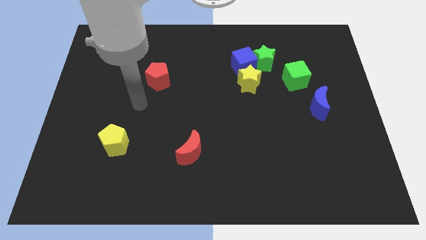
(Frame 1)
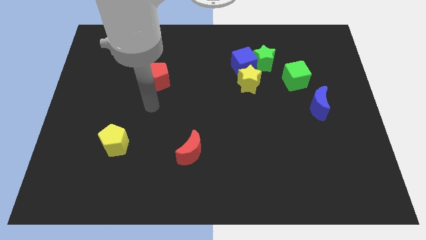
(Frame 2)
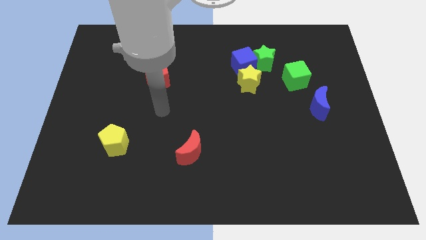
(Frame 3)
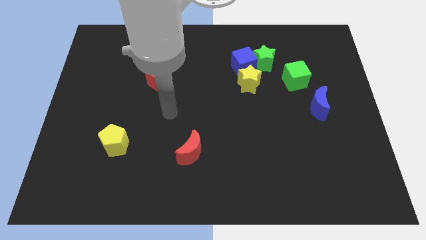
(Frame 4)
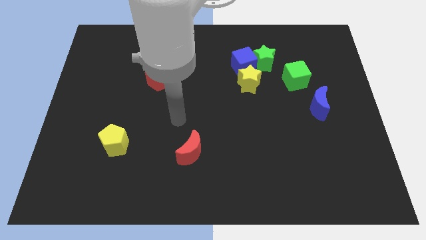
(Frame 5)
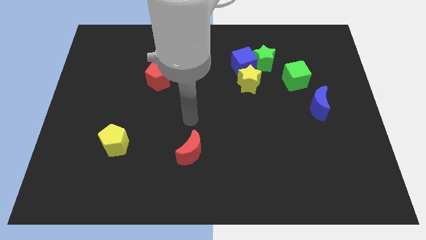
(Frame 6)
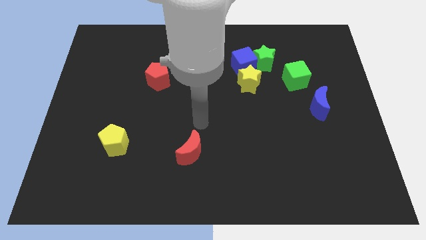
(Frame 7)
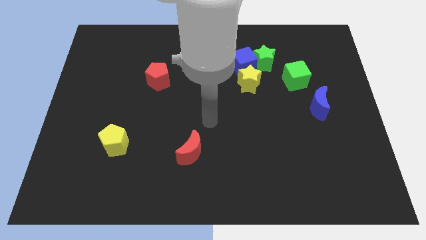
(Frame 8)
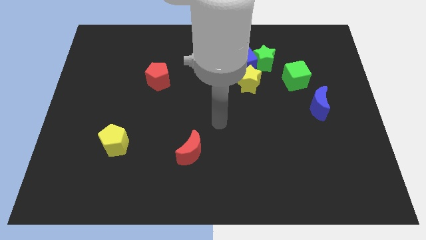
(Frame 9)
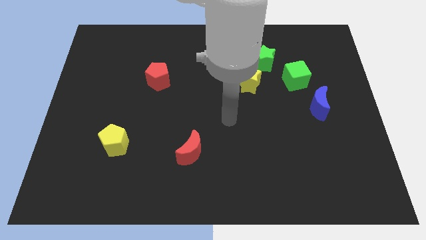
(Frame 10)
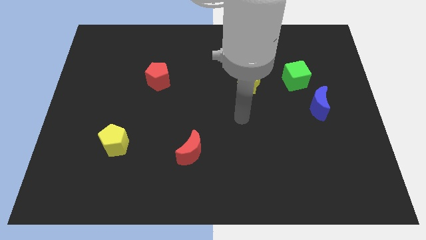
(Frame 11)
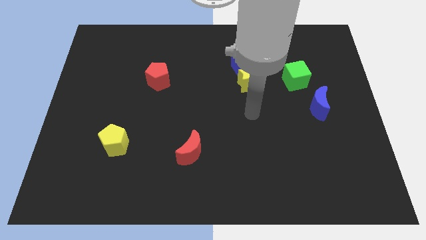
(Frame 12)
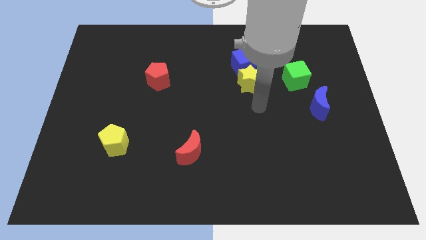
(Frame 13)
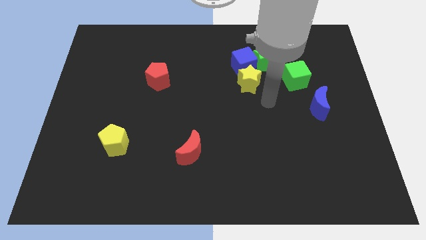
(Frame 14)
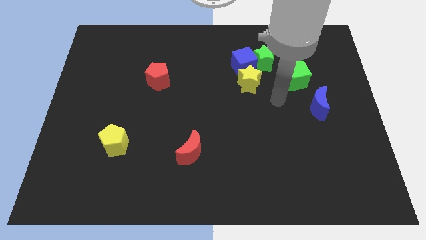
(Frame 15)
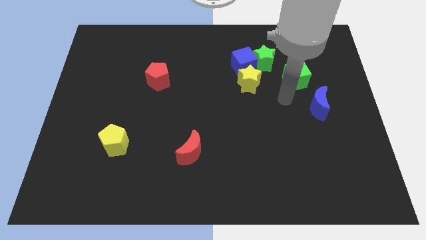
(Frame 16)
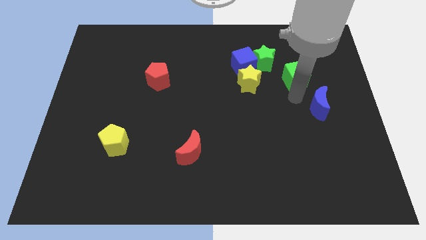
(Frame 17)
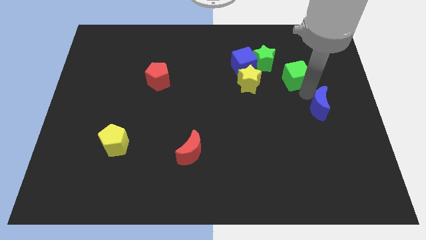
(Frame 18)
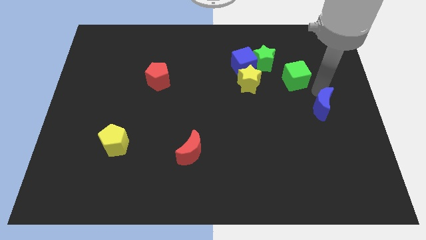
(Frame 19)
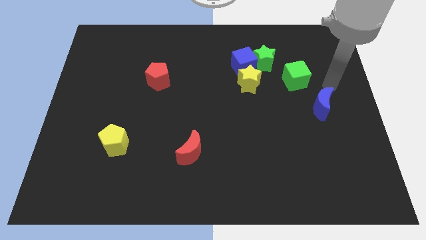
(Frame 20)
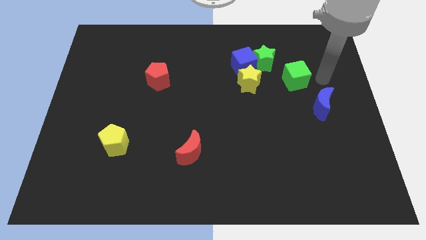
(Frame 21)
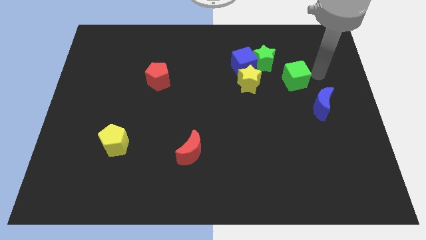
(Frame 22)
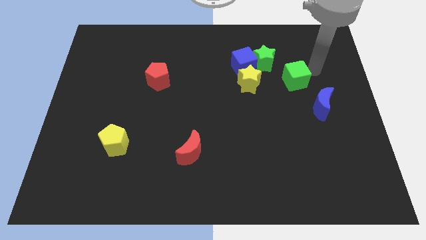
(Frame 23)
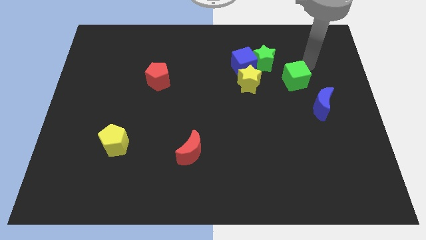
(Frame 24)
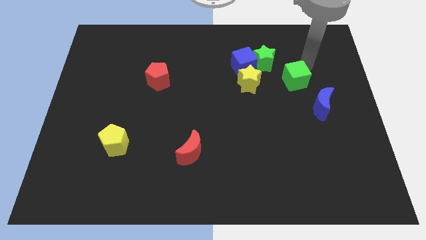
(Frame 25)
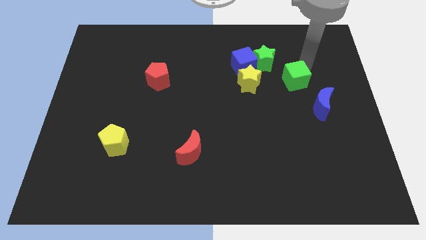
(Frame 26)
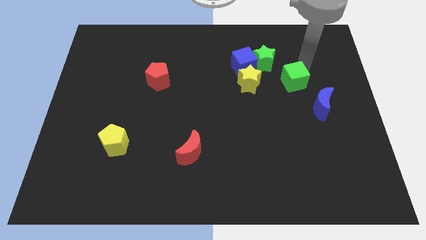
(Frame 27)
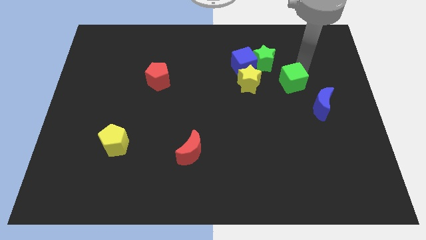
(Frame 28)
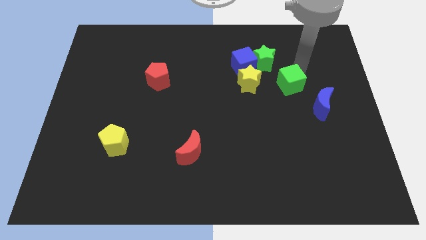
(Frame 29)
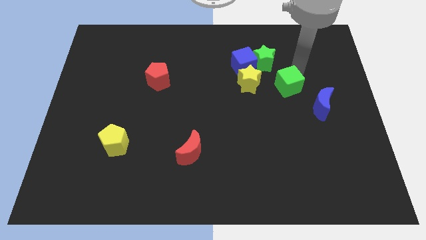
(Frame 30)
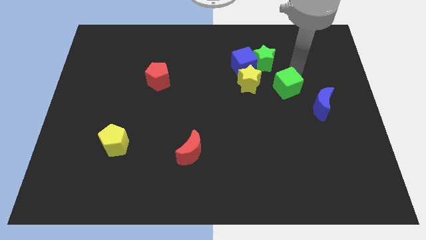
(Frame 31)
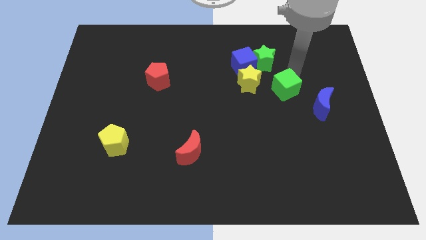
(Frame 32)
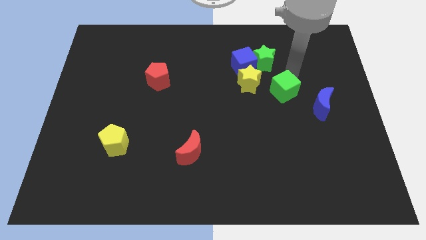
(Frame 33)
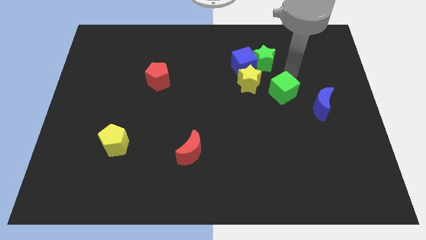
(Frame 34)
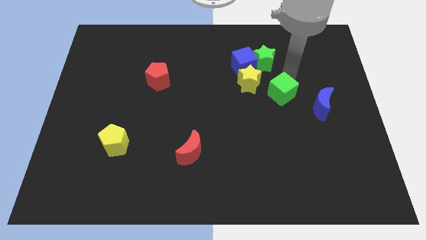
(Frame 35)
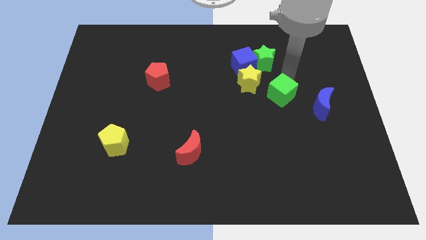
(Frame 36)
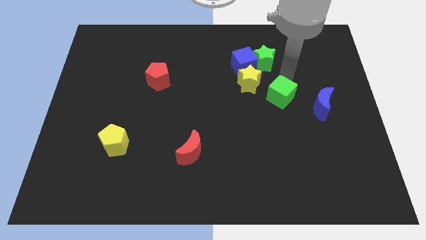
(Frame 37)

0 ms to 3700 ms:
slide the green cube downwards and left a little bit

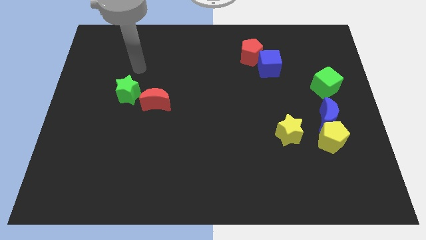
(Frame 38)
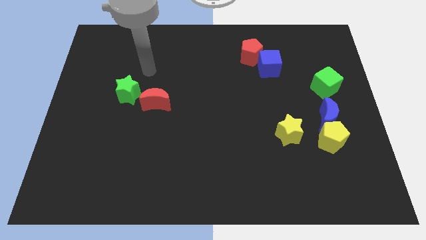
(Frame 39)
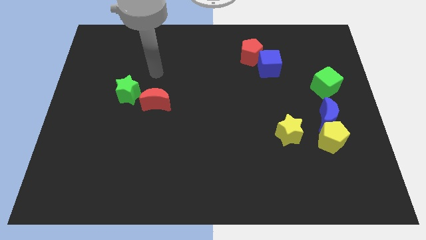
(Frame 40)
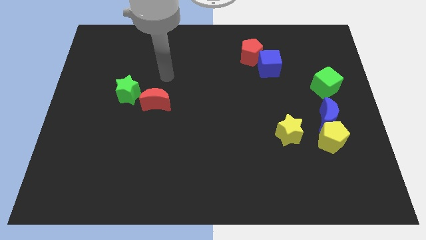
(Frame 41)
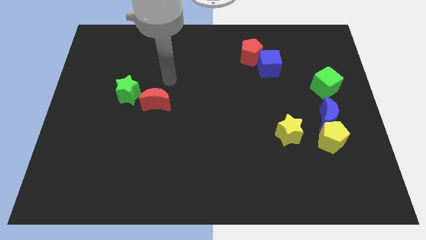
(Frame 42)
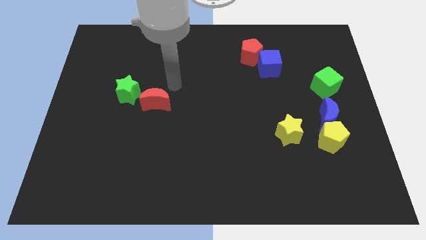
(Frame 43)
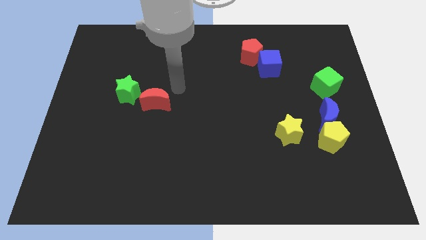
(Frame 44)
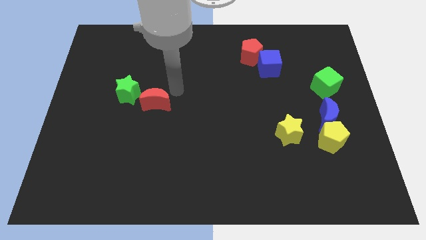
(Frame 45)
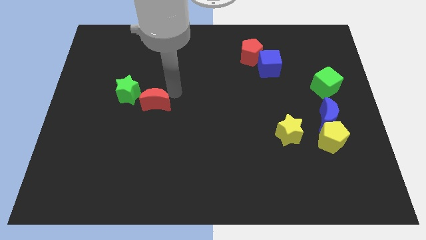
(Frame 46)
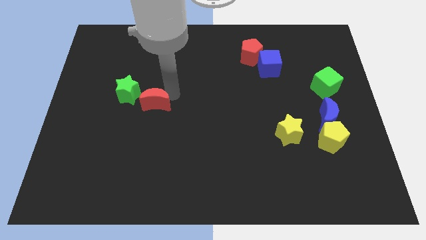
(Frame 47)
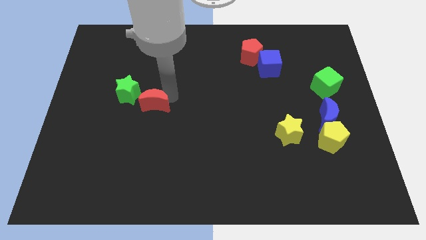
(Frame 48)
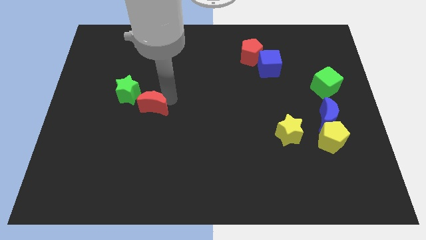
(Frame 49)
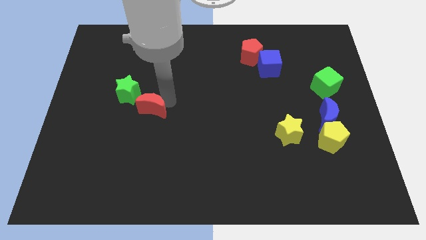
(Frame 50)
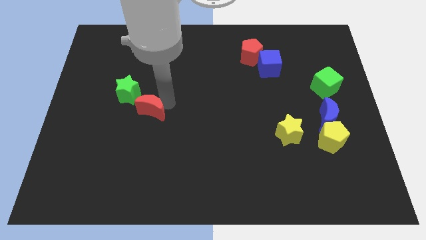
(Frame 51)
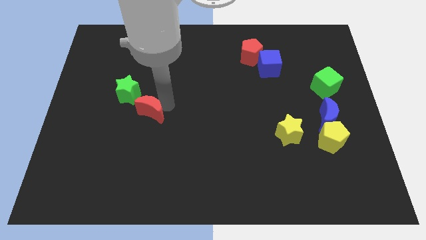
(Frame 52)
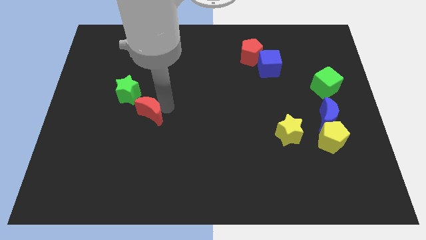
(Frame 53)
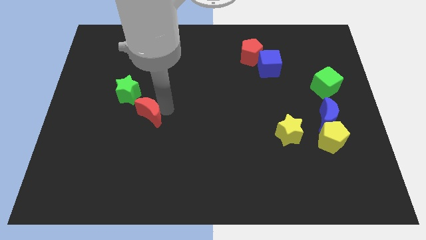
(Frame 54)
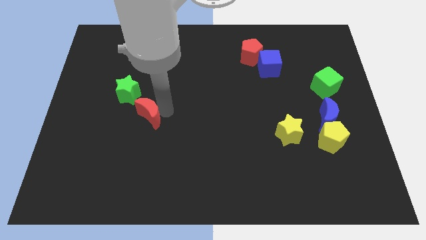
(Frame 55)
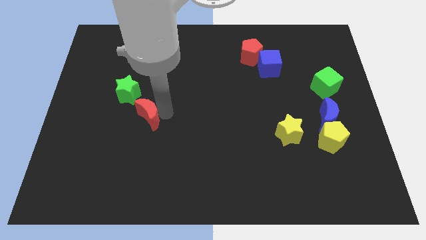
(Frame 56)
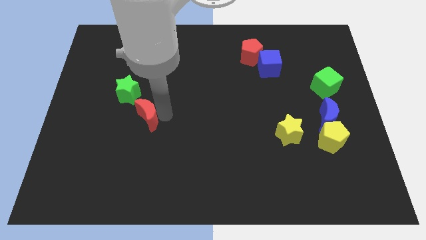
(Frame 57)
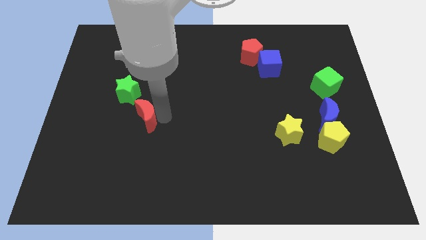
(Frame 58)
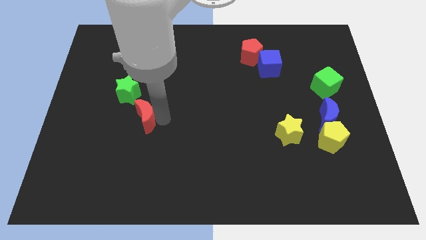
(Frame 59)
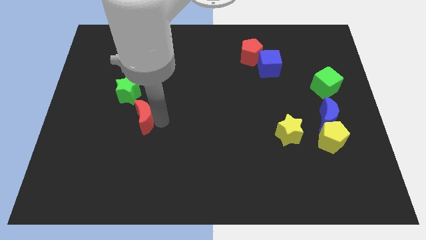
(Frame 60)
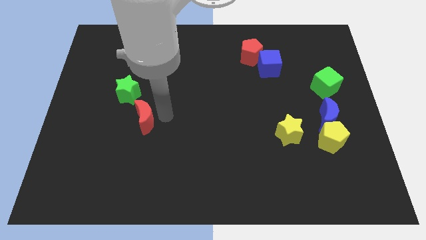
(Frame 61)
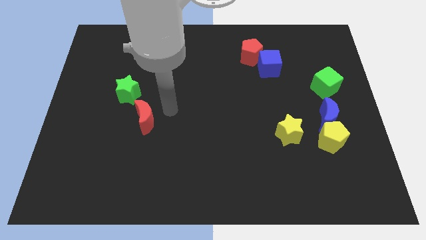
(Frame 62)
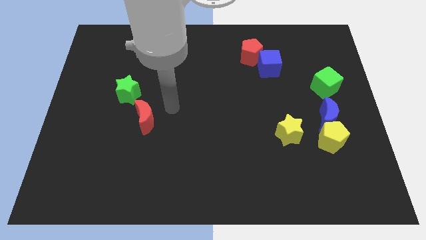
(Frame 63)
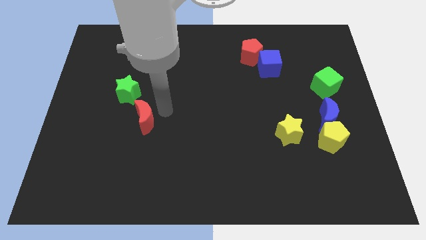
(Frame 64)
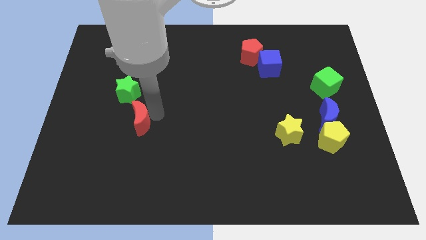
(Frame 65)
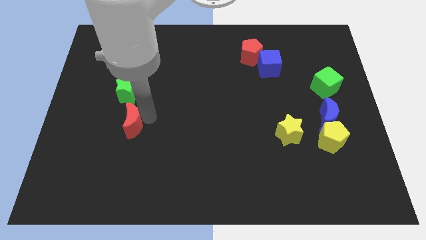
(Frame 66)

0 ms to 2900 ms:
slightly move the red moon diagonally down and to the left

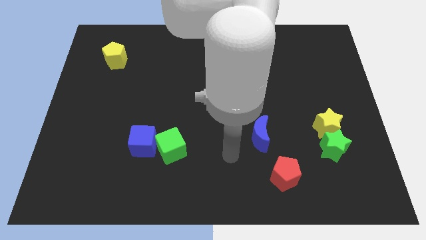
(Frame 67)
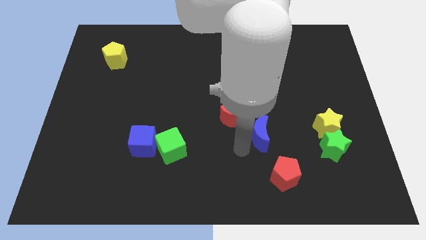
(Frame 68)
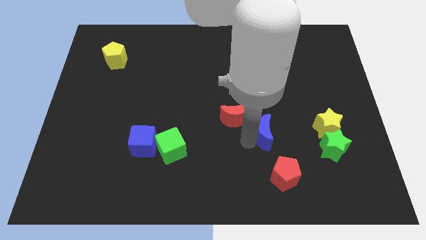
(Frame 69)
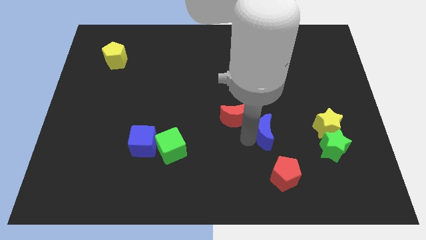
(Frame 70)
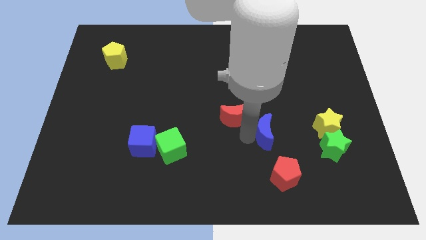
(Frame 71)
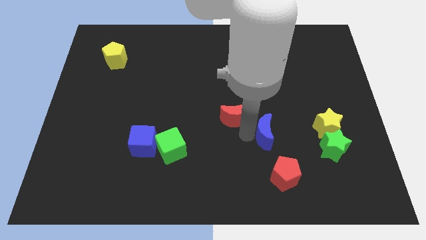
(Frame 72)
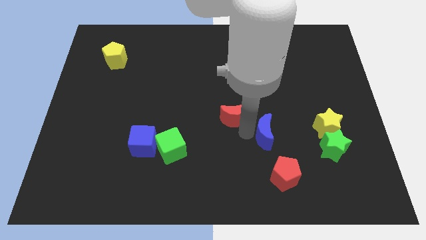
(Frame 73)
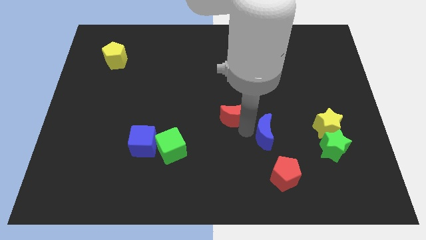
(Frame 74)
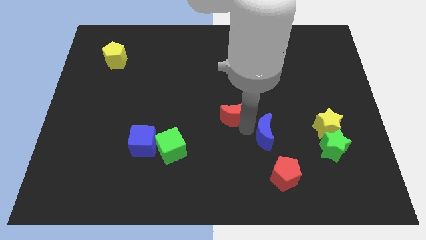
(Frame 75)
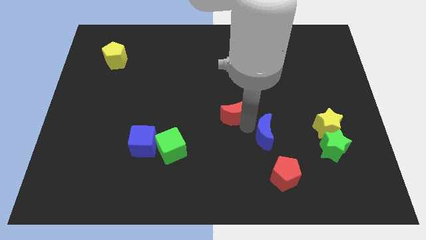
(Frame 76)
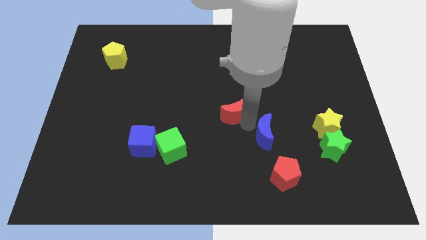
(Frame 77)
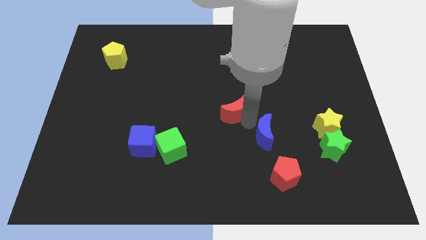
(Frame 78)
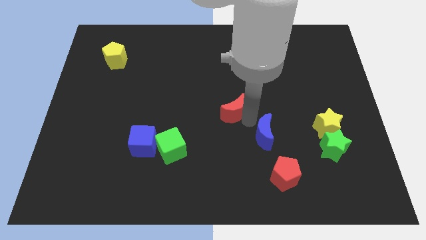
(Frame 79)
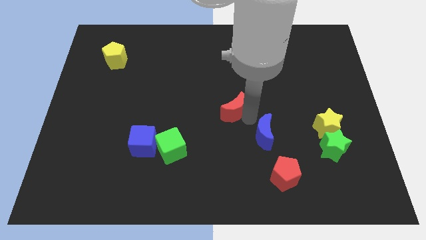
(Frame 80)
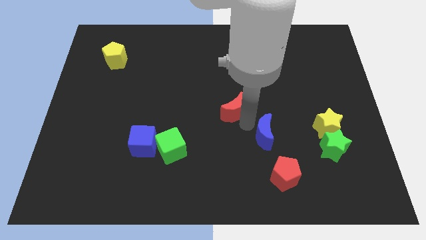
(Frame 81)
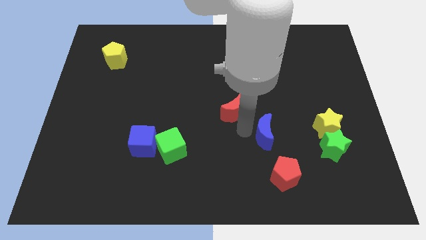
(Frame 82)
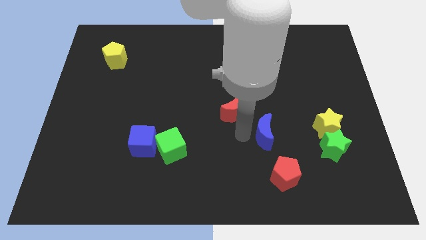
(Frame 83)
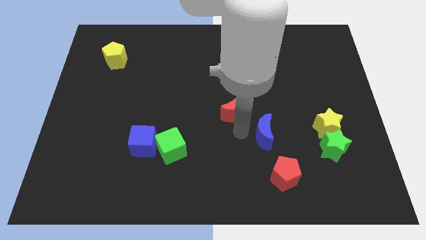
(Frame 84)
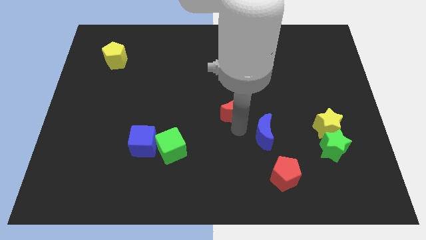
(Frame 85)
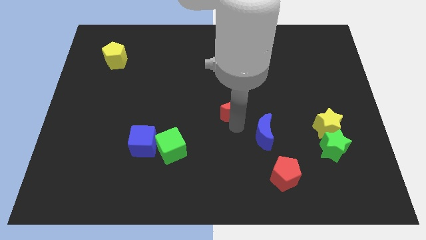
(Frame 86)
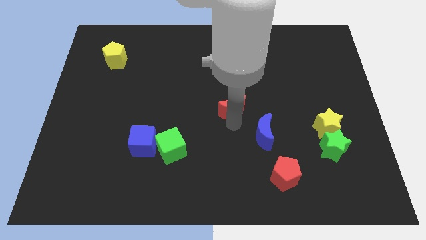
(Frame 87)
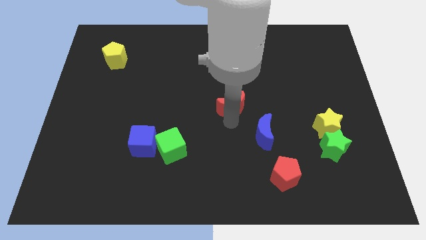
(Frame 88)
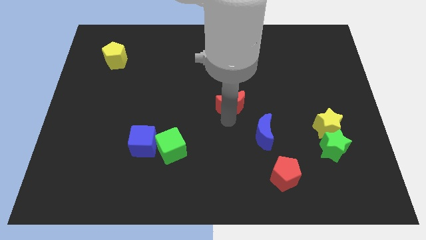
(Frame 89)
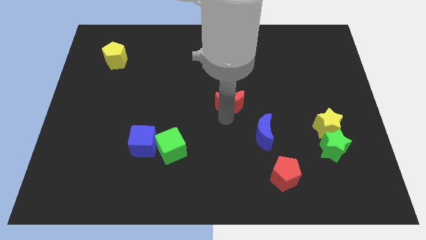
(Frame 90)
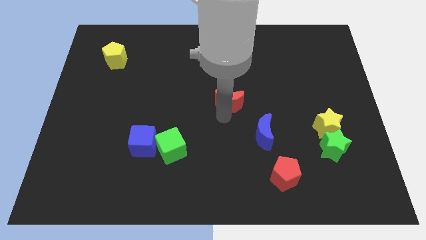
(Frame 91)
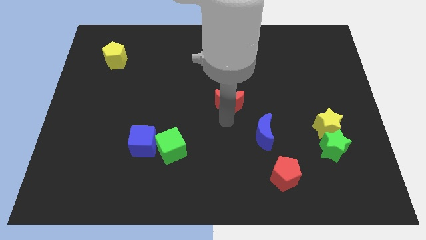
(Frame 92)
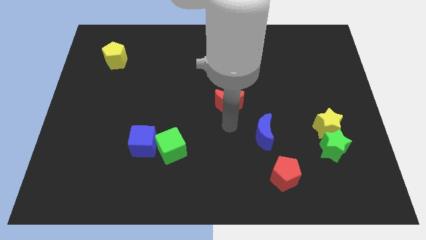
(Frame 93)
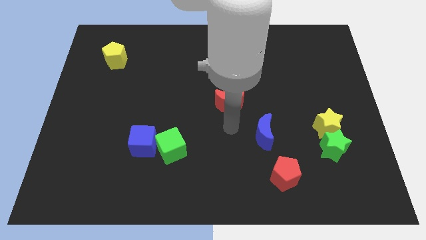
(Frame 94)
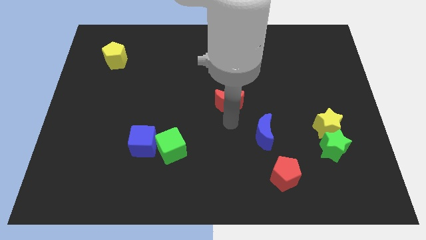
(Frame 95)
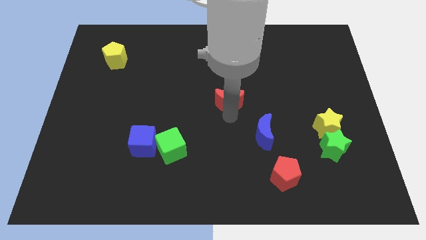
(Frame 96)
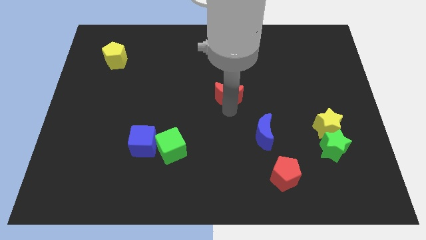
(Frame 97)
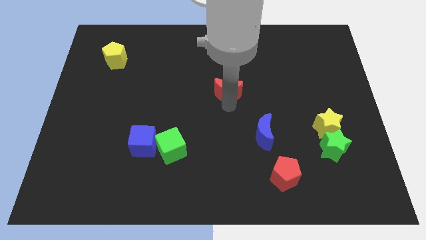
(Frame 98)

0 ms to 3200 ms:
slide the red moon slightly upwards
